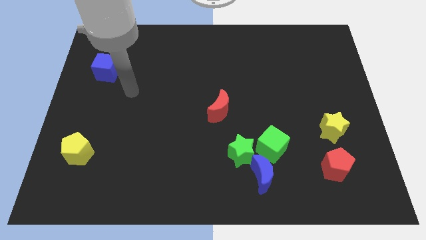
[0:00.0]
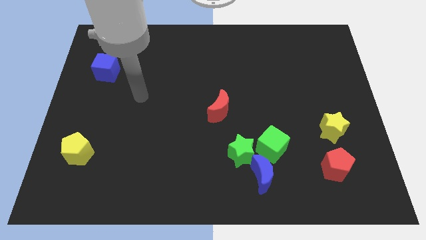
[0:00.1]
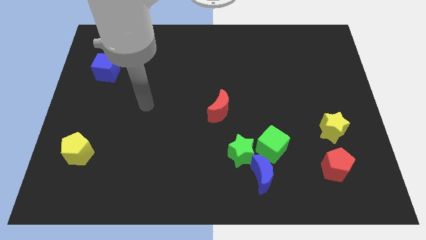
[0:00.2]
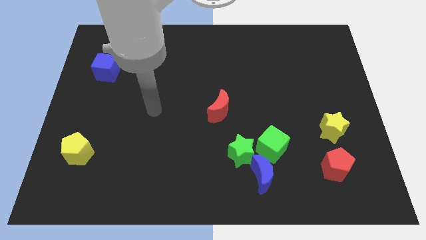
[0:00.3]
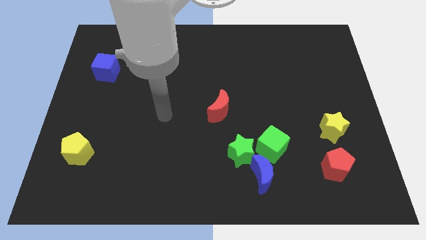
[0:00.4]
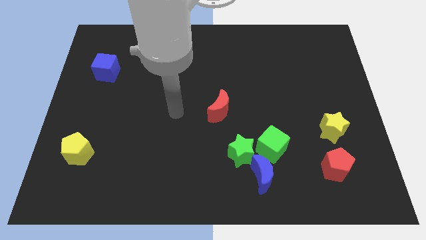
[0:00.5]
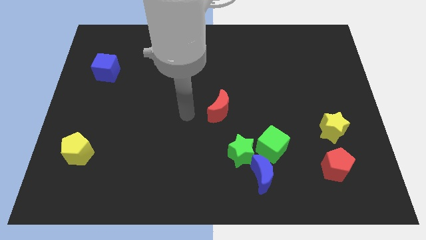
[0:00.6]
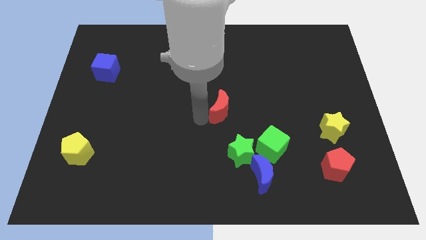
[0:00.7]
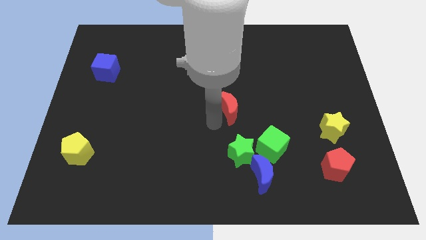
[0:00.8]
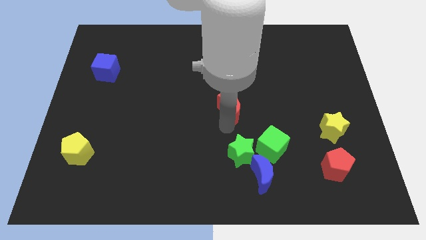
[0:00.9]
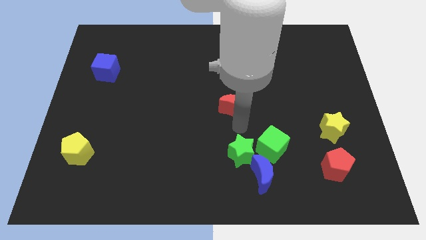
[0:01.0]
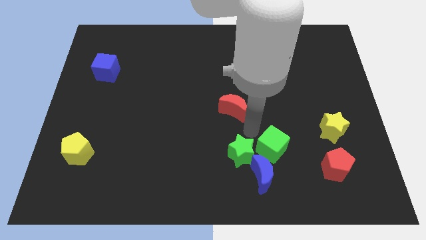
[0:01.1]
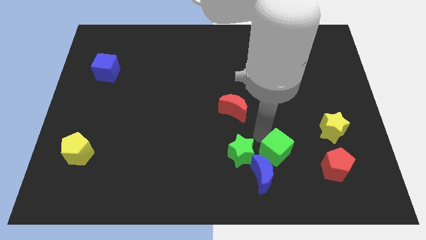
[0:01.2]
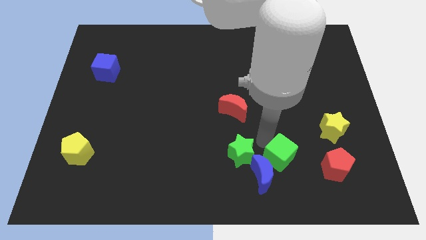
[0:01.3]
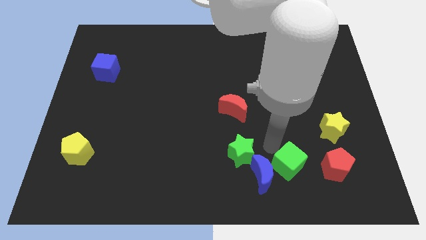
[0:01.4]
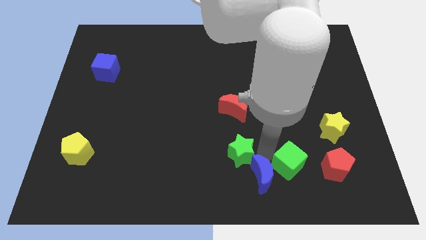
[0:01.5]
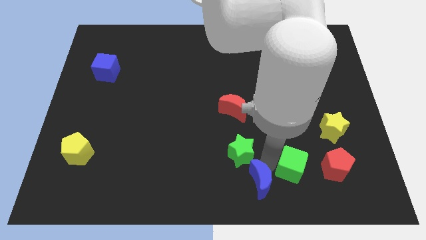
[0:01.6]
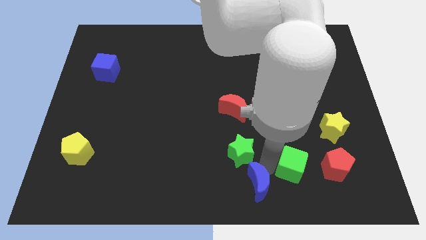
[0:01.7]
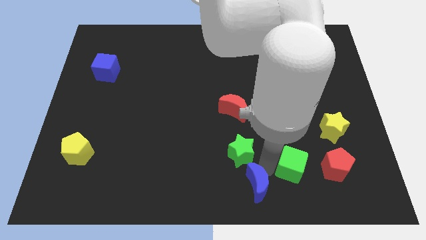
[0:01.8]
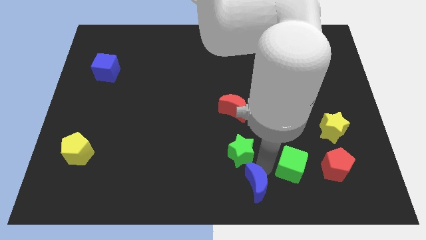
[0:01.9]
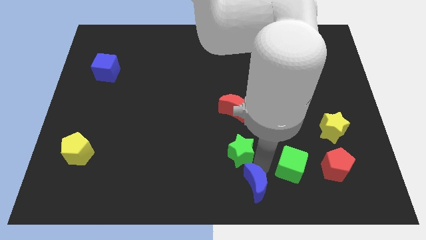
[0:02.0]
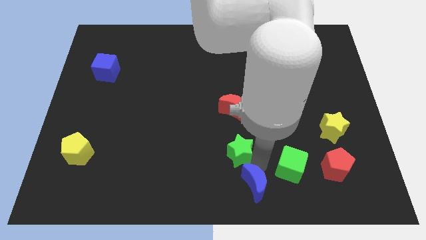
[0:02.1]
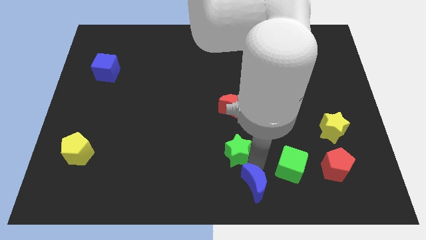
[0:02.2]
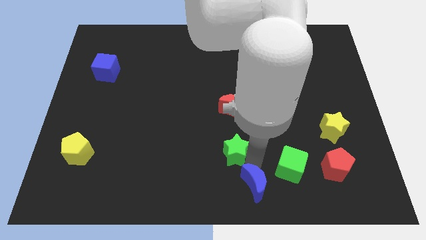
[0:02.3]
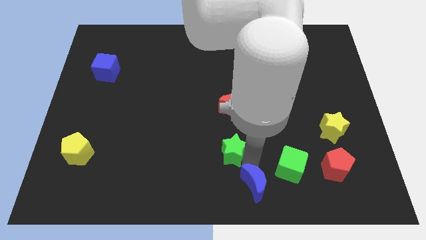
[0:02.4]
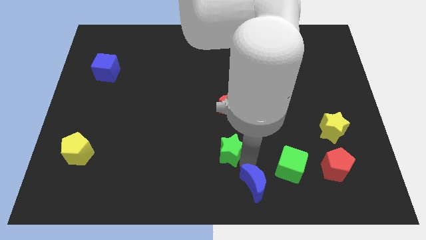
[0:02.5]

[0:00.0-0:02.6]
move the green star away from the blue moon and green cube

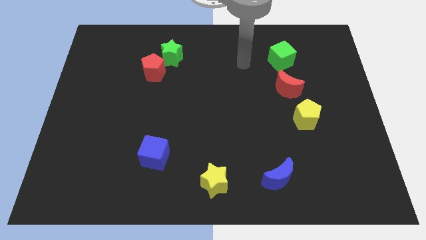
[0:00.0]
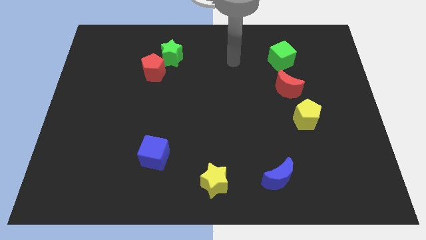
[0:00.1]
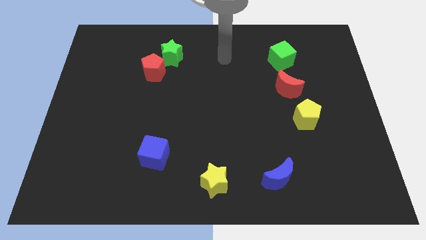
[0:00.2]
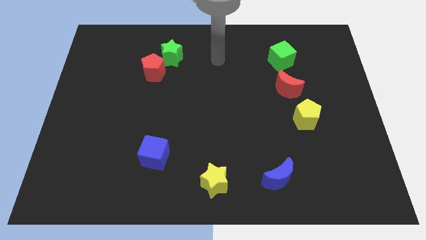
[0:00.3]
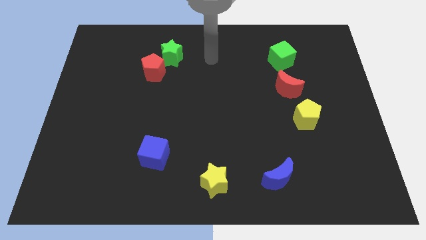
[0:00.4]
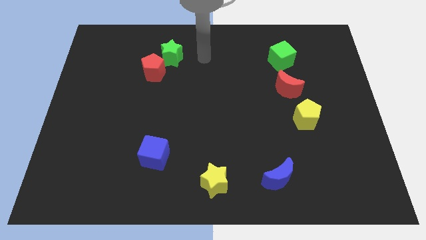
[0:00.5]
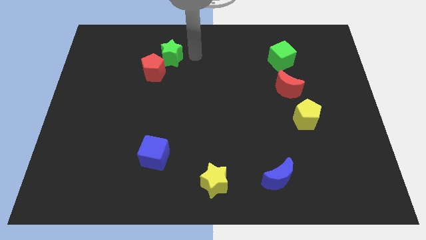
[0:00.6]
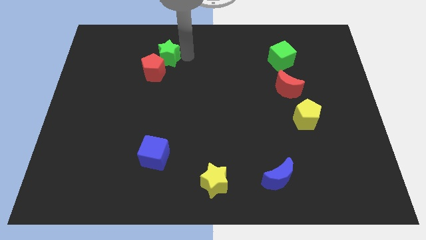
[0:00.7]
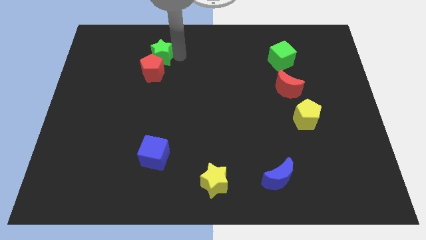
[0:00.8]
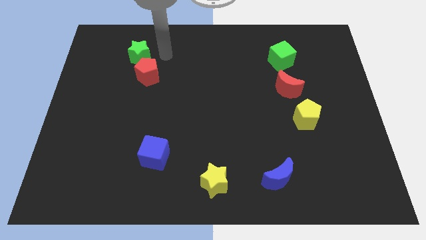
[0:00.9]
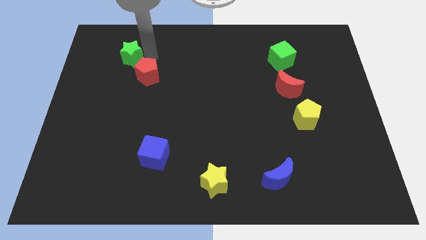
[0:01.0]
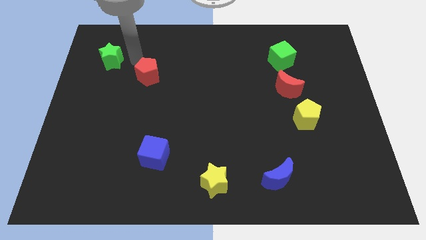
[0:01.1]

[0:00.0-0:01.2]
pull the red pentagon apart from the green star

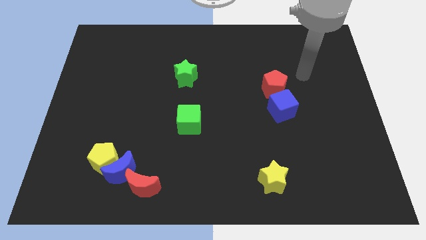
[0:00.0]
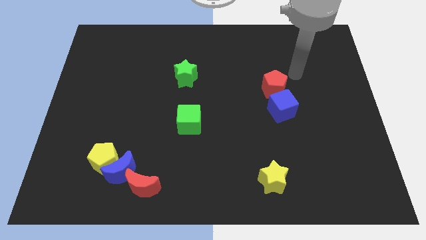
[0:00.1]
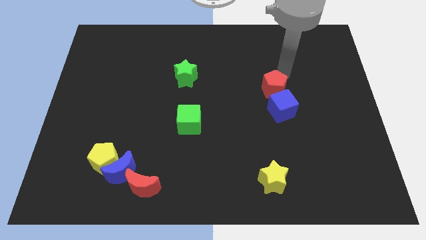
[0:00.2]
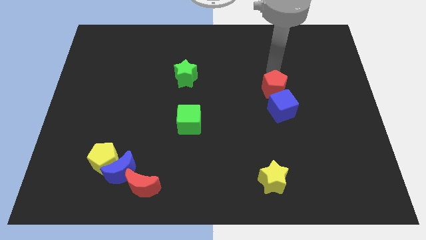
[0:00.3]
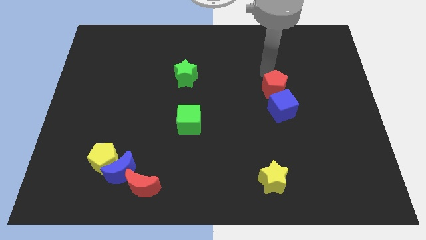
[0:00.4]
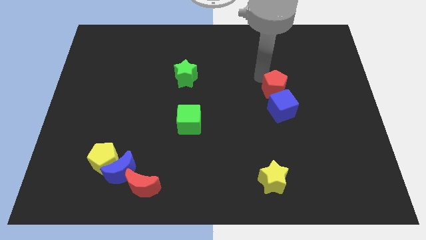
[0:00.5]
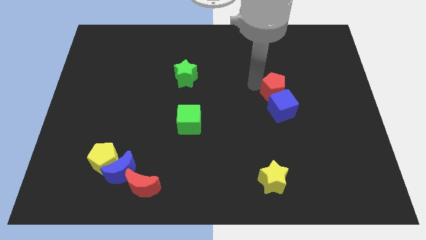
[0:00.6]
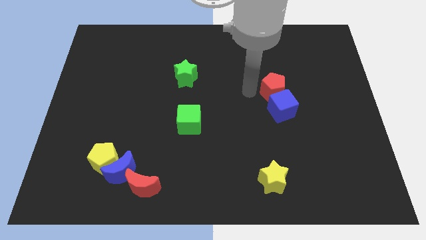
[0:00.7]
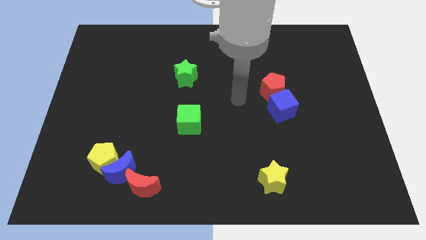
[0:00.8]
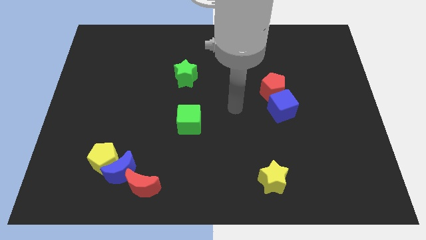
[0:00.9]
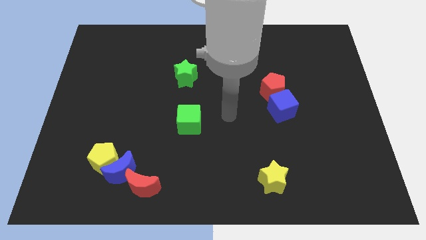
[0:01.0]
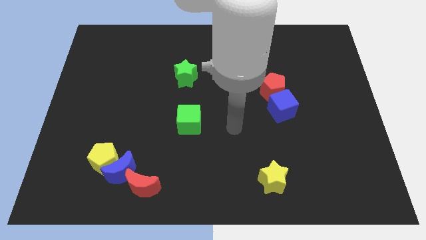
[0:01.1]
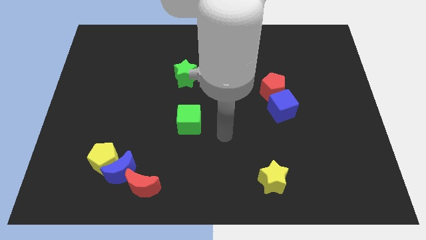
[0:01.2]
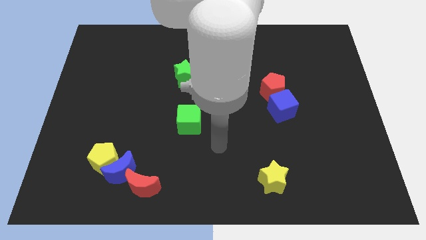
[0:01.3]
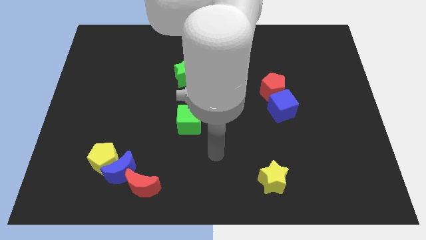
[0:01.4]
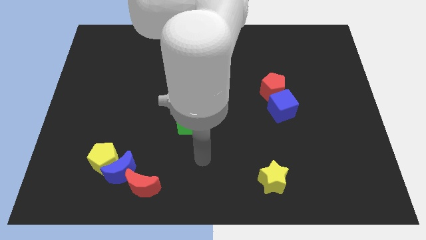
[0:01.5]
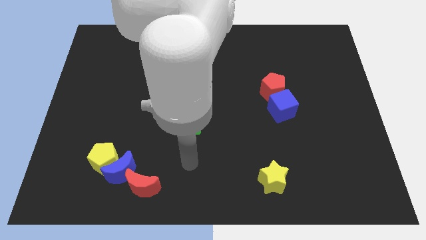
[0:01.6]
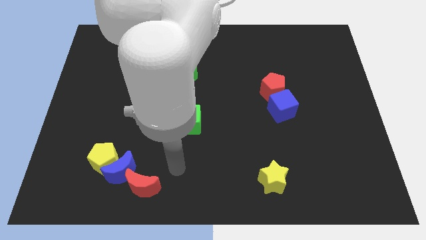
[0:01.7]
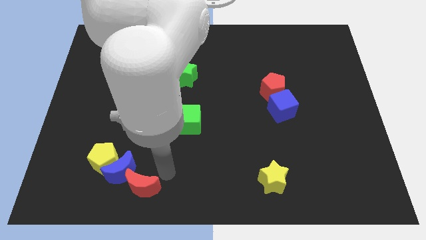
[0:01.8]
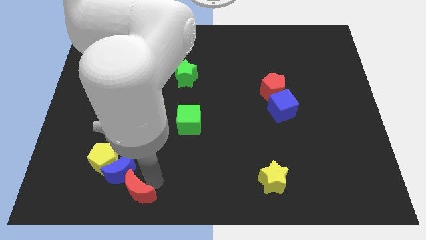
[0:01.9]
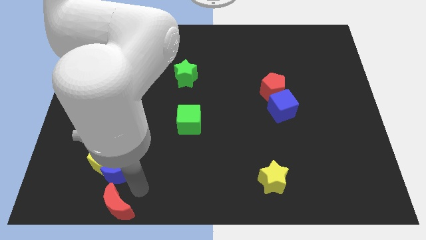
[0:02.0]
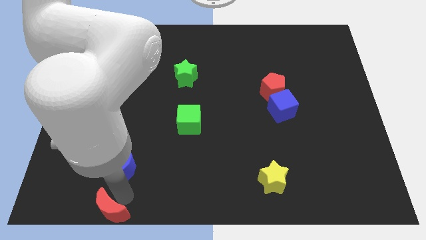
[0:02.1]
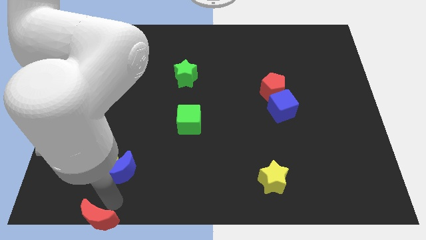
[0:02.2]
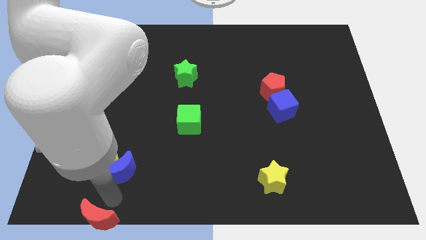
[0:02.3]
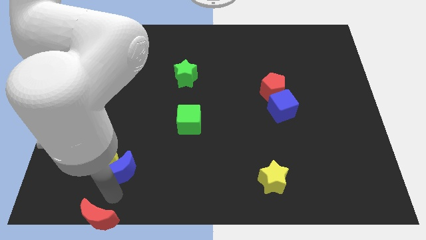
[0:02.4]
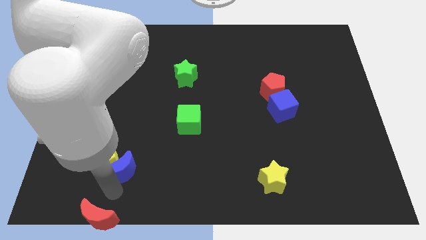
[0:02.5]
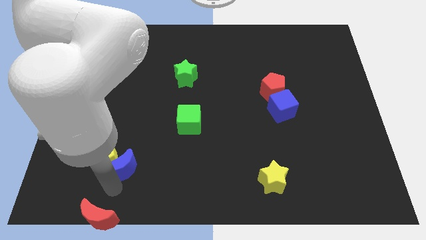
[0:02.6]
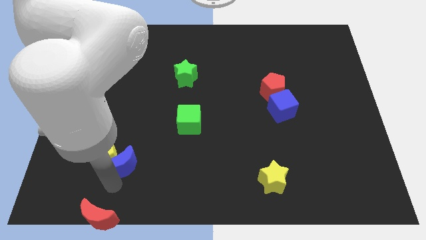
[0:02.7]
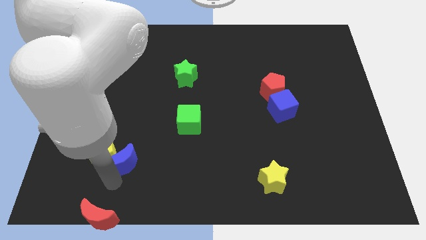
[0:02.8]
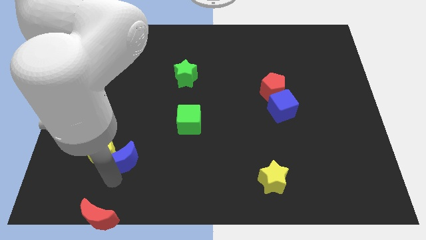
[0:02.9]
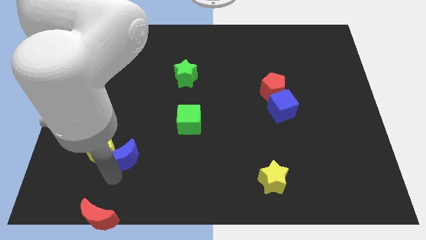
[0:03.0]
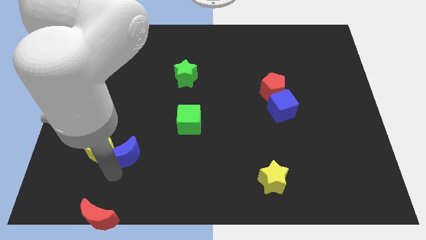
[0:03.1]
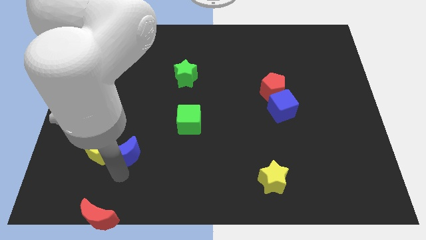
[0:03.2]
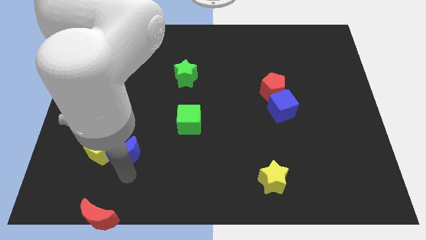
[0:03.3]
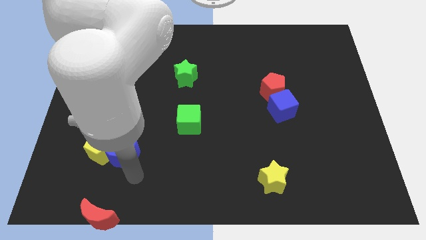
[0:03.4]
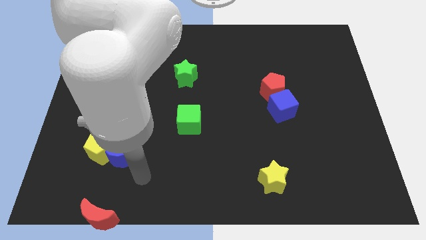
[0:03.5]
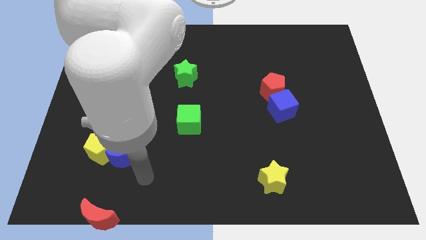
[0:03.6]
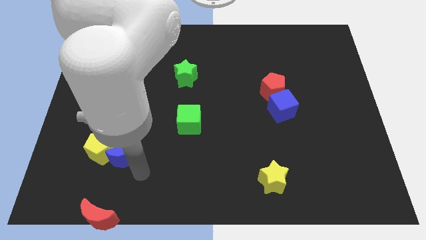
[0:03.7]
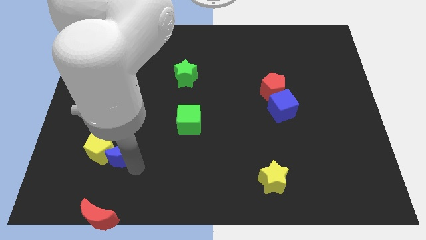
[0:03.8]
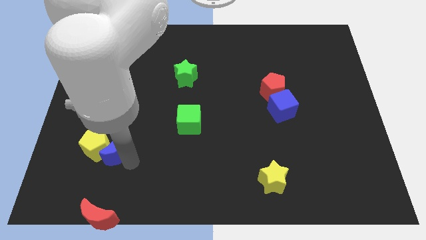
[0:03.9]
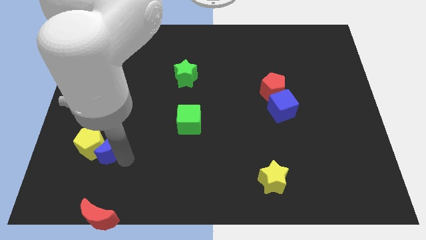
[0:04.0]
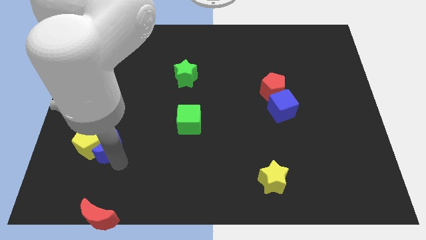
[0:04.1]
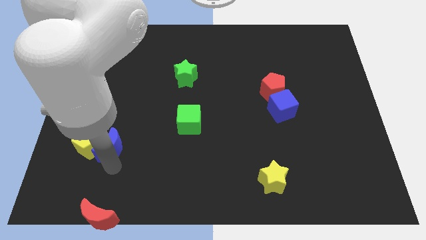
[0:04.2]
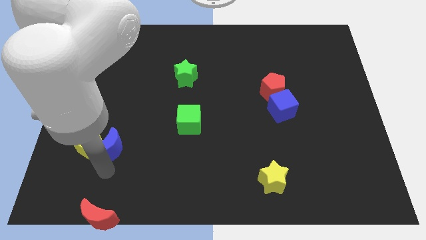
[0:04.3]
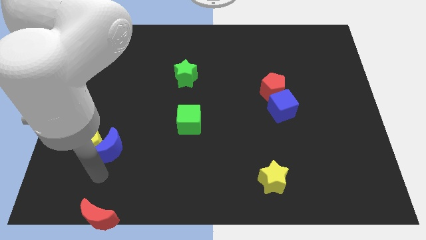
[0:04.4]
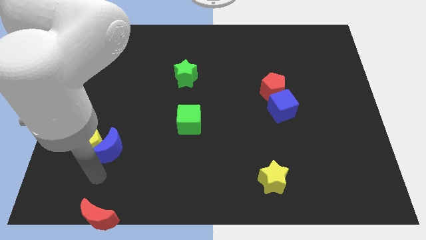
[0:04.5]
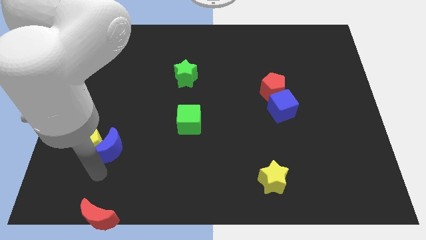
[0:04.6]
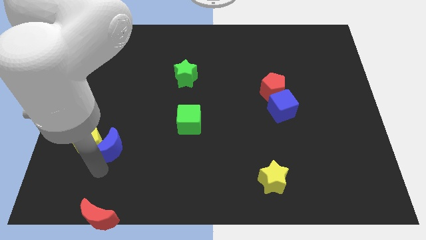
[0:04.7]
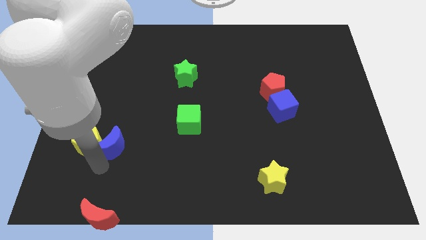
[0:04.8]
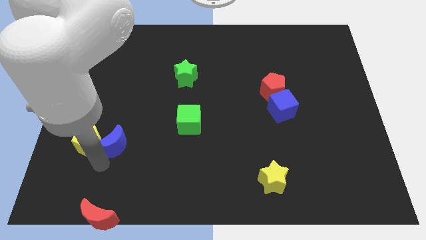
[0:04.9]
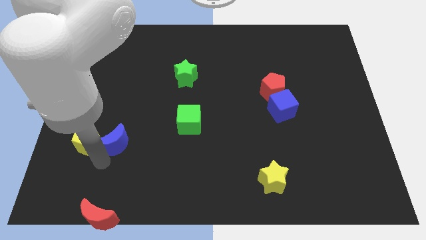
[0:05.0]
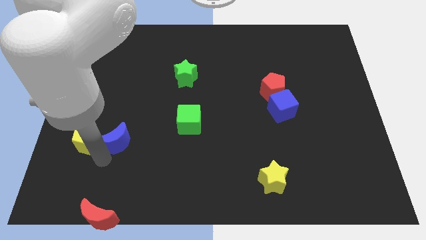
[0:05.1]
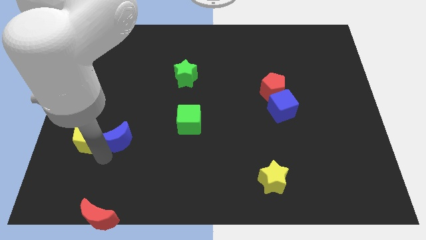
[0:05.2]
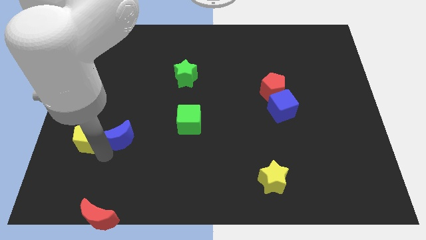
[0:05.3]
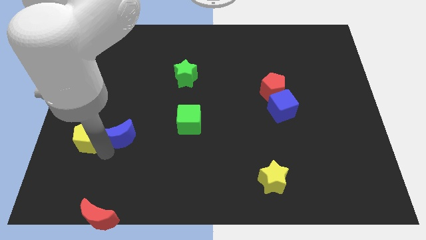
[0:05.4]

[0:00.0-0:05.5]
separate the blue moon from the yellow pentagon and red moon
